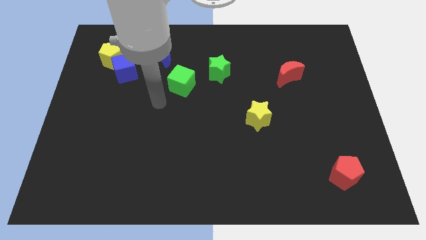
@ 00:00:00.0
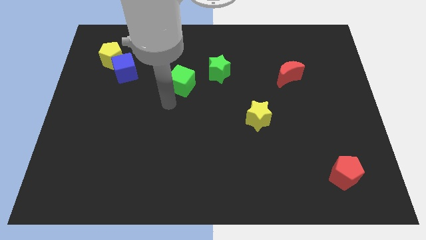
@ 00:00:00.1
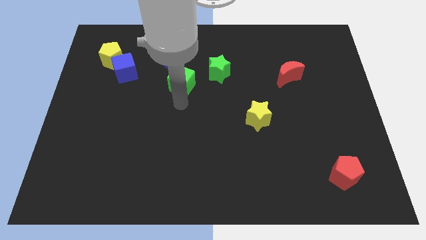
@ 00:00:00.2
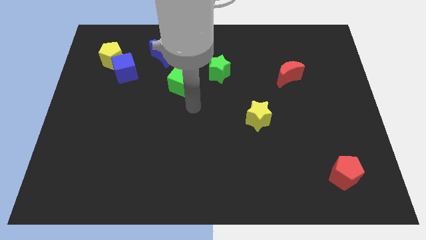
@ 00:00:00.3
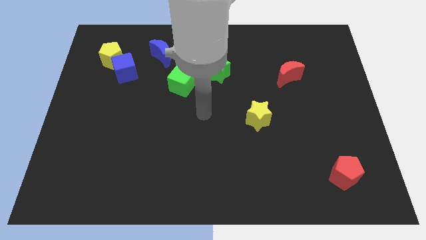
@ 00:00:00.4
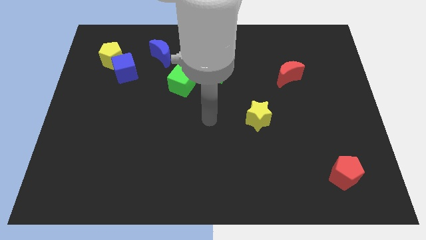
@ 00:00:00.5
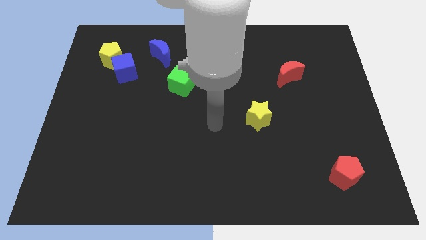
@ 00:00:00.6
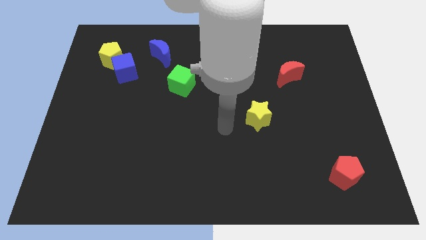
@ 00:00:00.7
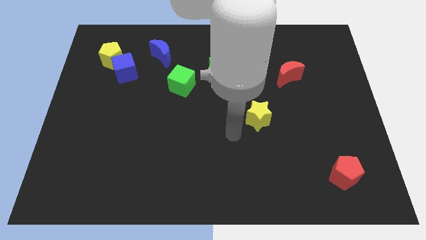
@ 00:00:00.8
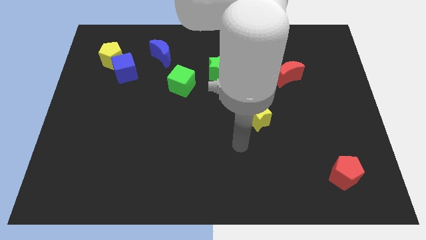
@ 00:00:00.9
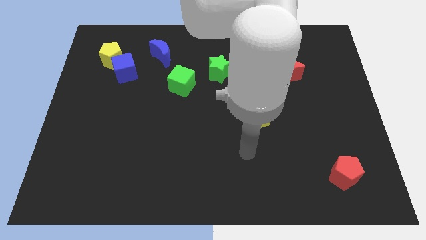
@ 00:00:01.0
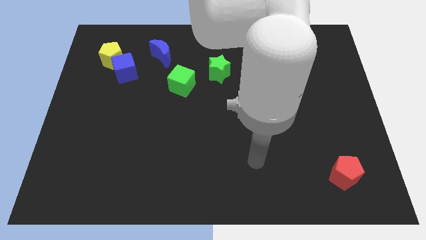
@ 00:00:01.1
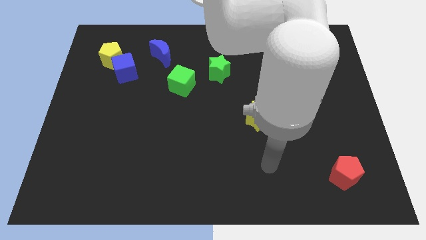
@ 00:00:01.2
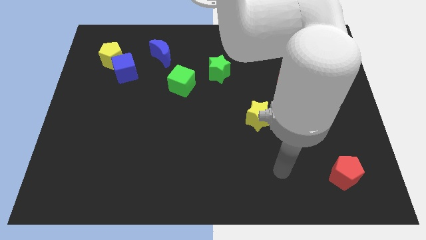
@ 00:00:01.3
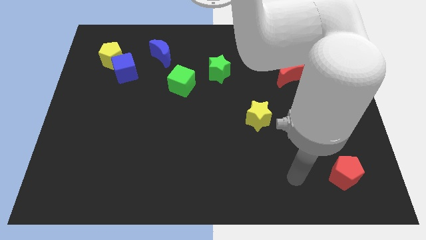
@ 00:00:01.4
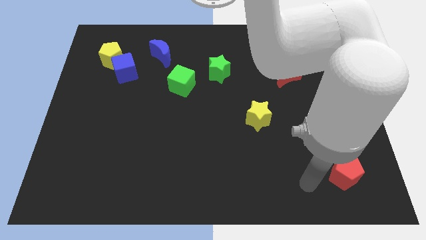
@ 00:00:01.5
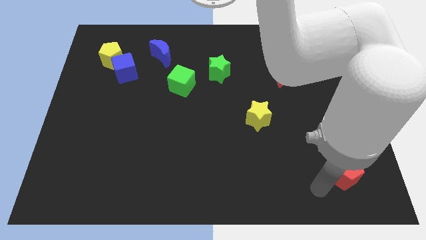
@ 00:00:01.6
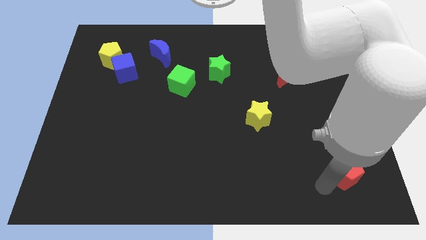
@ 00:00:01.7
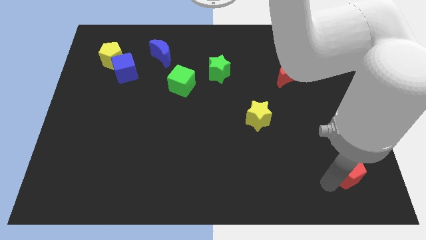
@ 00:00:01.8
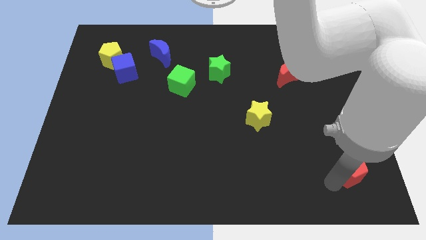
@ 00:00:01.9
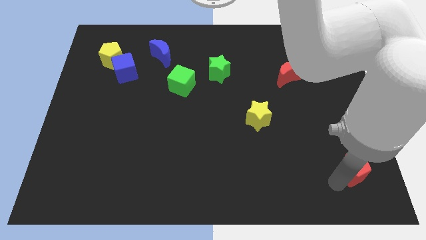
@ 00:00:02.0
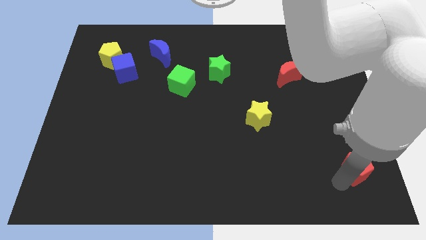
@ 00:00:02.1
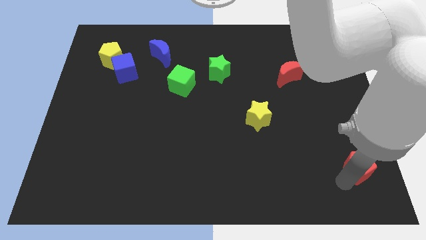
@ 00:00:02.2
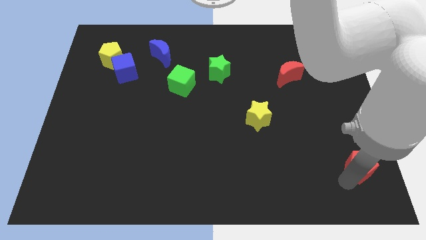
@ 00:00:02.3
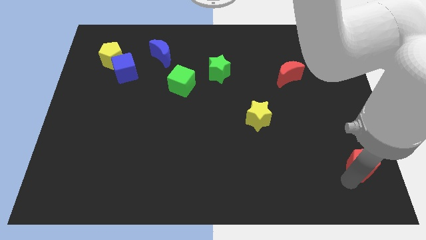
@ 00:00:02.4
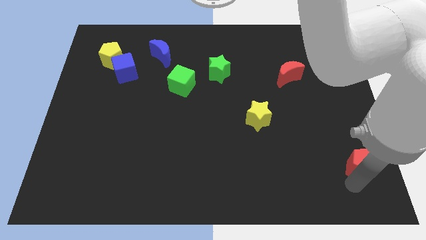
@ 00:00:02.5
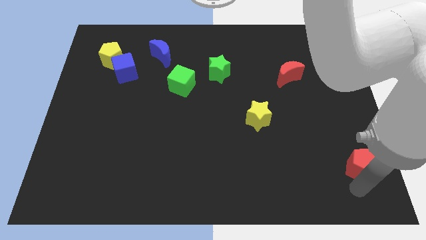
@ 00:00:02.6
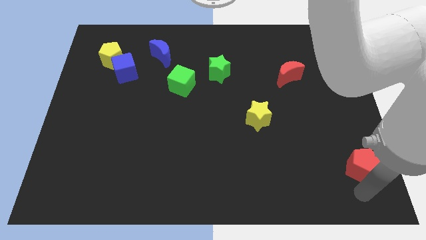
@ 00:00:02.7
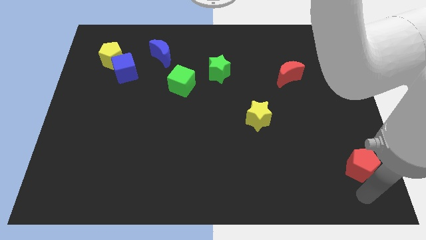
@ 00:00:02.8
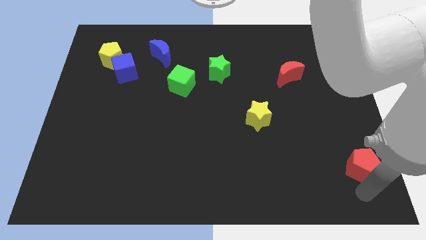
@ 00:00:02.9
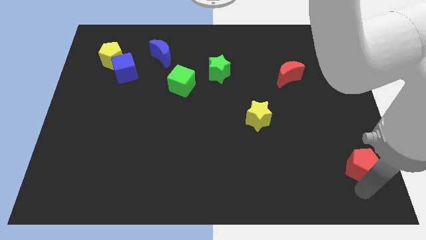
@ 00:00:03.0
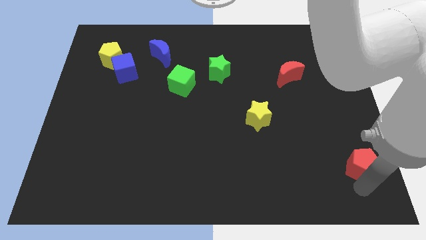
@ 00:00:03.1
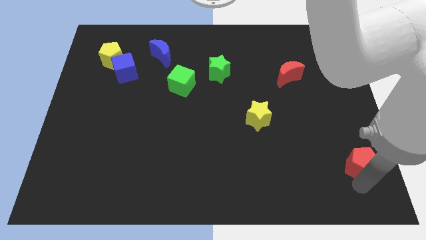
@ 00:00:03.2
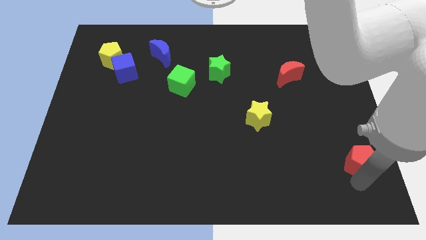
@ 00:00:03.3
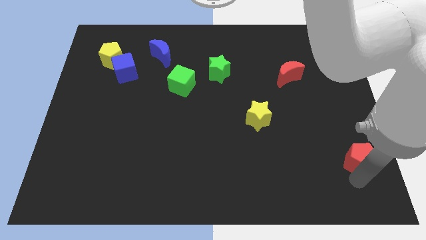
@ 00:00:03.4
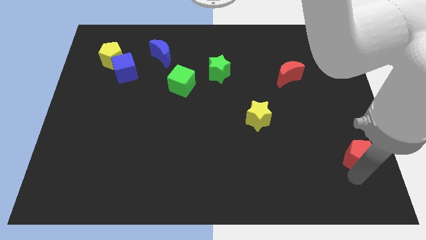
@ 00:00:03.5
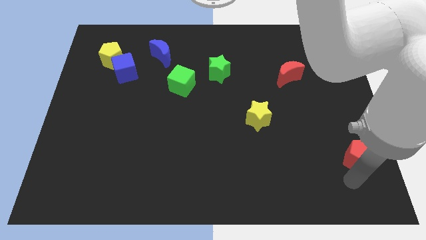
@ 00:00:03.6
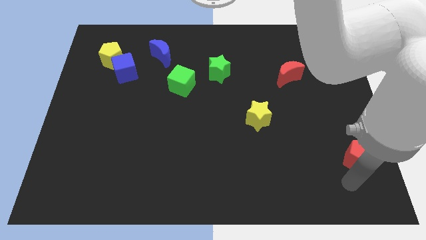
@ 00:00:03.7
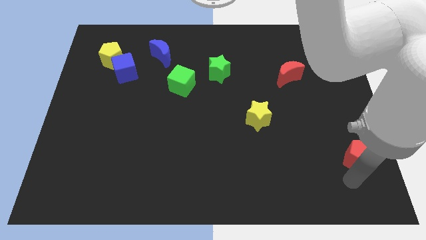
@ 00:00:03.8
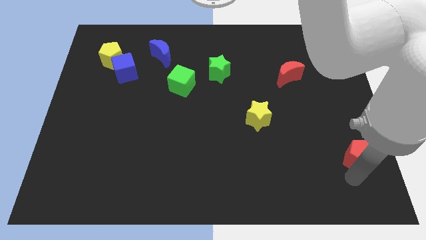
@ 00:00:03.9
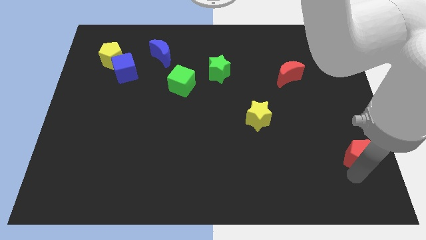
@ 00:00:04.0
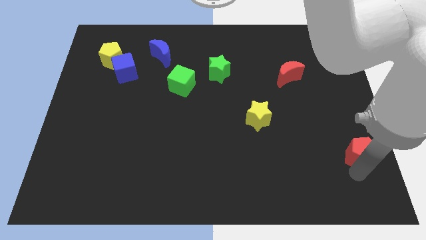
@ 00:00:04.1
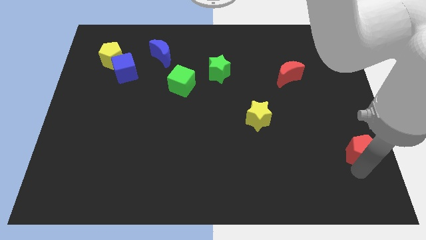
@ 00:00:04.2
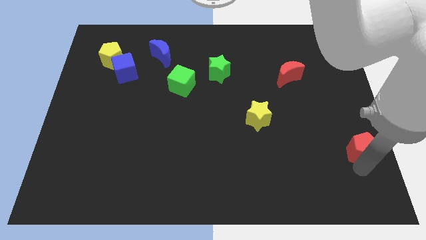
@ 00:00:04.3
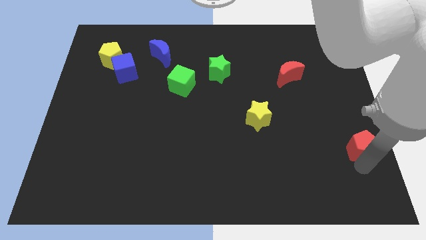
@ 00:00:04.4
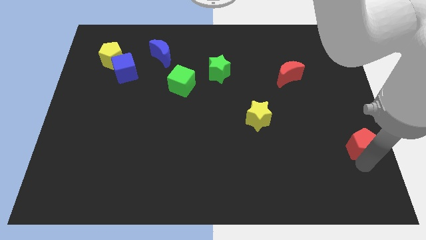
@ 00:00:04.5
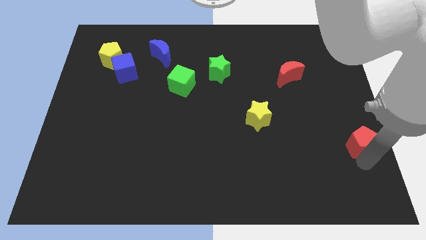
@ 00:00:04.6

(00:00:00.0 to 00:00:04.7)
push the red pentagon to the center right

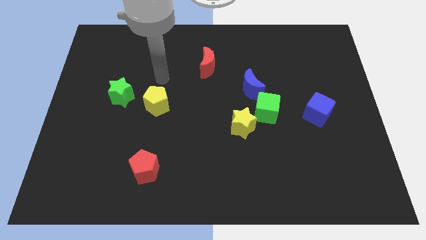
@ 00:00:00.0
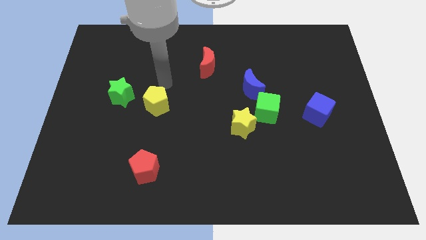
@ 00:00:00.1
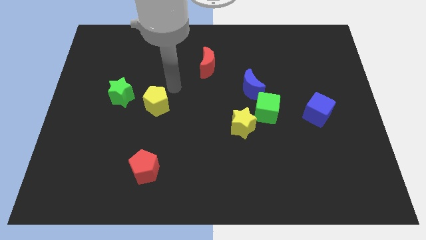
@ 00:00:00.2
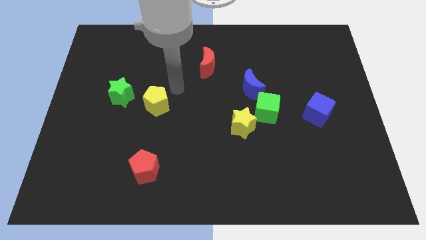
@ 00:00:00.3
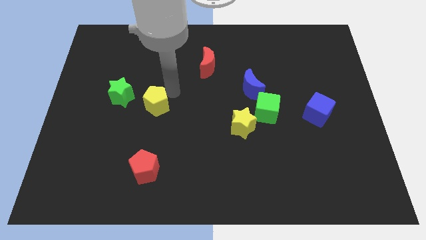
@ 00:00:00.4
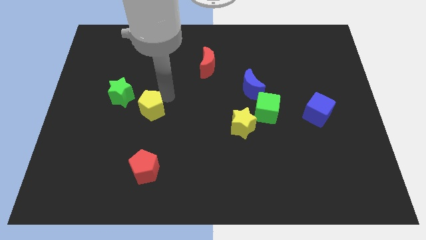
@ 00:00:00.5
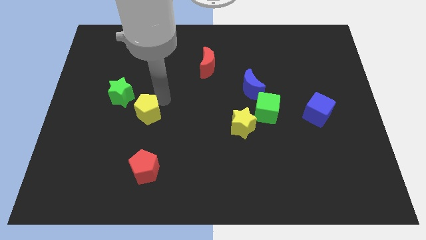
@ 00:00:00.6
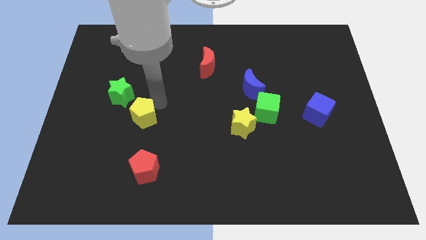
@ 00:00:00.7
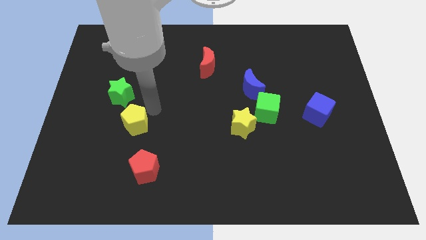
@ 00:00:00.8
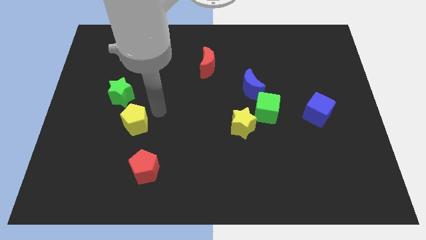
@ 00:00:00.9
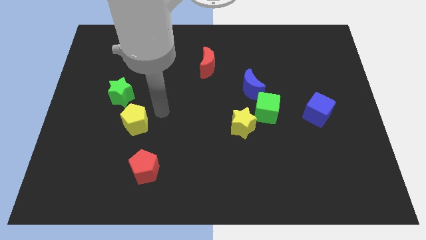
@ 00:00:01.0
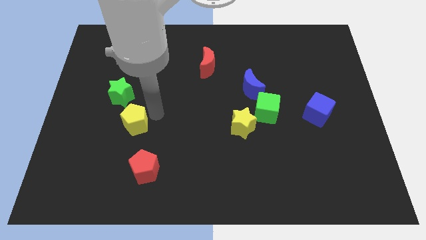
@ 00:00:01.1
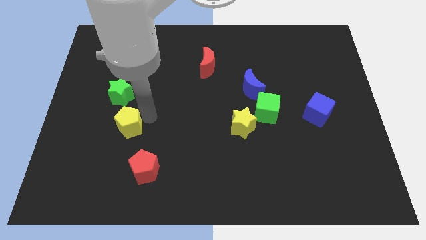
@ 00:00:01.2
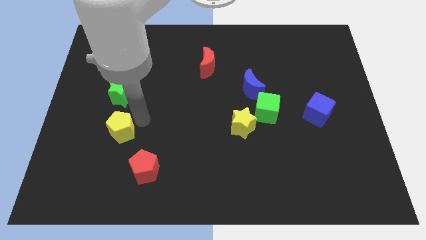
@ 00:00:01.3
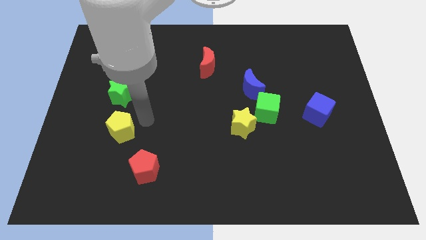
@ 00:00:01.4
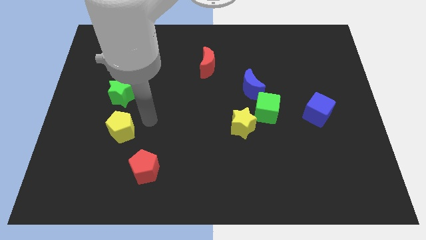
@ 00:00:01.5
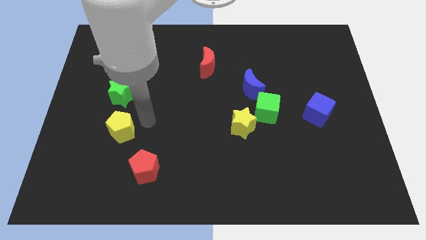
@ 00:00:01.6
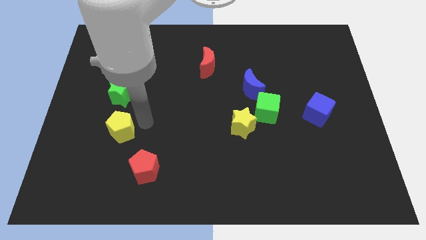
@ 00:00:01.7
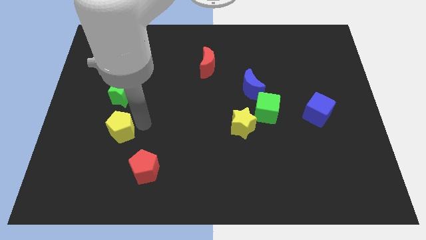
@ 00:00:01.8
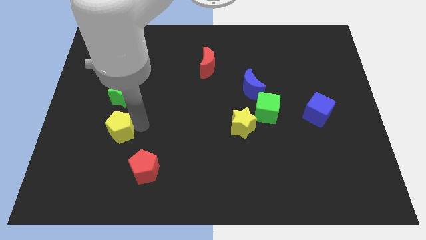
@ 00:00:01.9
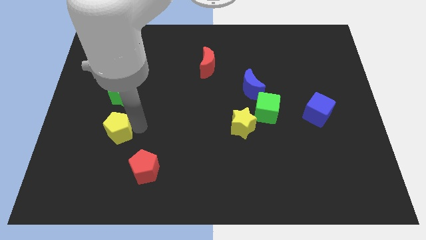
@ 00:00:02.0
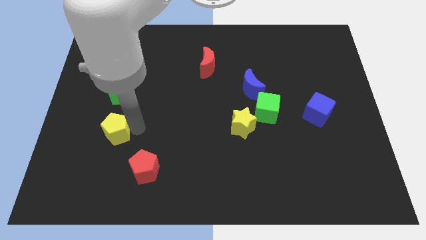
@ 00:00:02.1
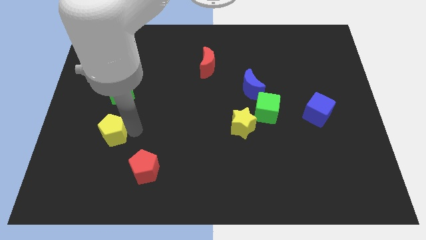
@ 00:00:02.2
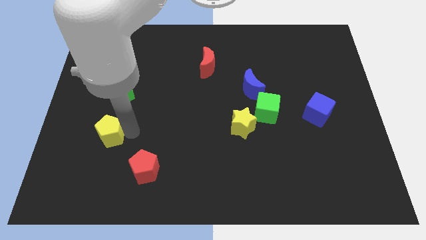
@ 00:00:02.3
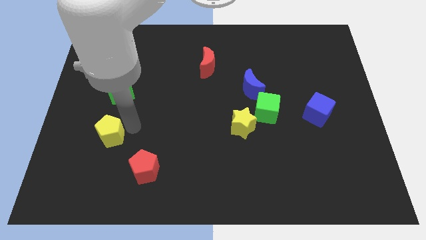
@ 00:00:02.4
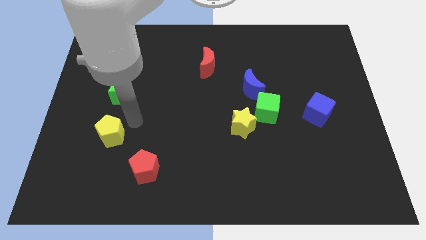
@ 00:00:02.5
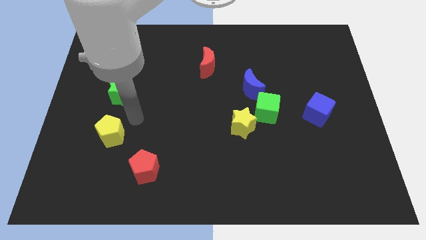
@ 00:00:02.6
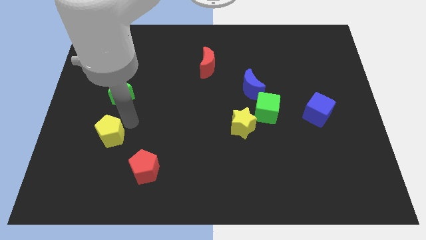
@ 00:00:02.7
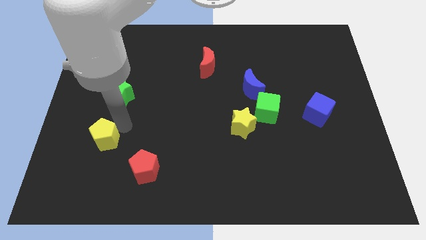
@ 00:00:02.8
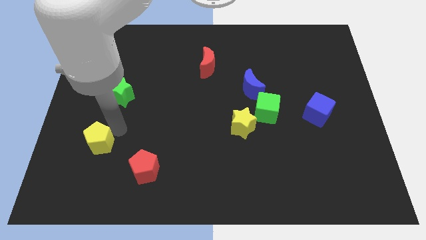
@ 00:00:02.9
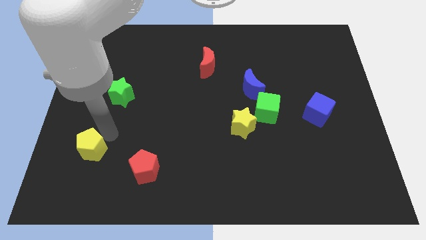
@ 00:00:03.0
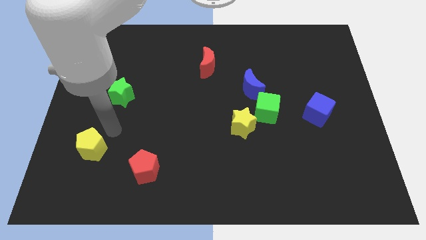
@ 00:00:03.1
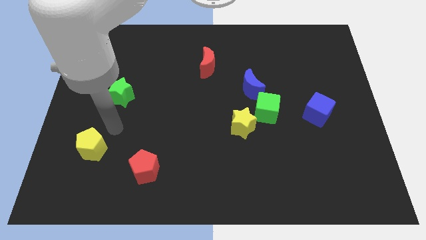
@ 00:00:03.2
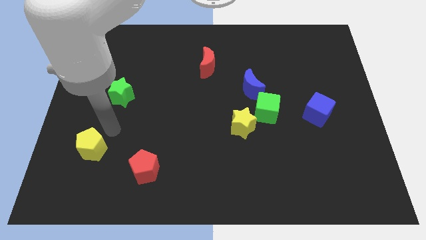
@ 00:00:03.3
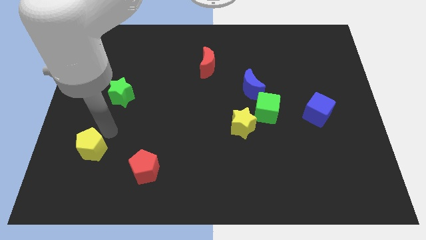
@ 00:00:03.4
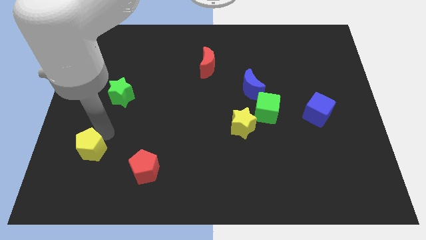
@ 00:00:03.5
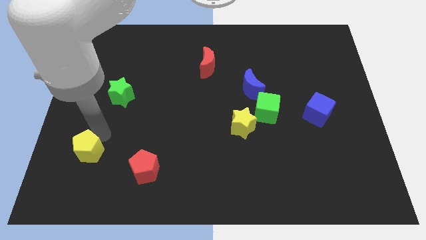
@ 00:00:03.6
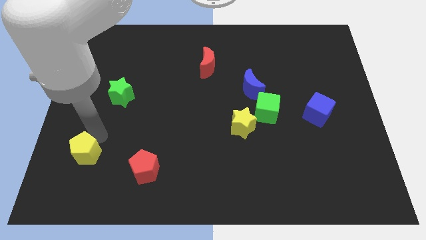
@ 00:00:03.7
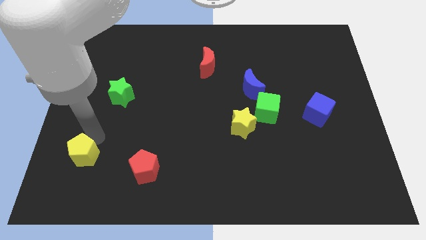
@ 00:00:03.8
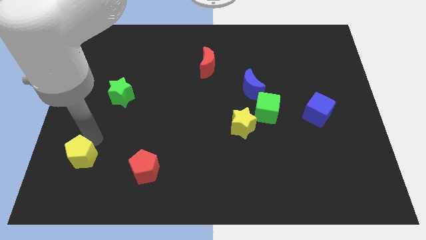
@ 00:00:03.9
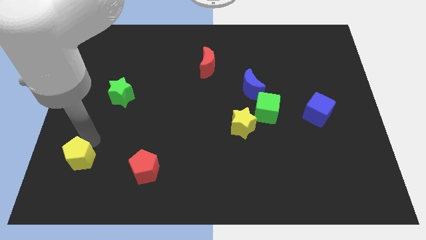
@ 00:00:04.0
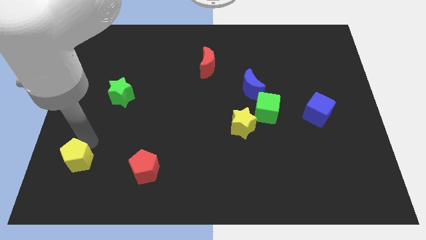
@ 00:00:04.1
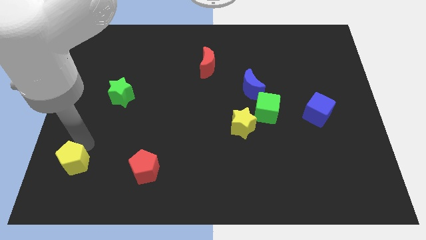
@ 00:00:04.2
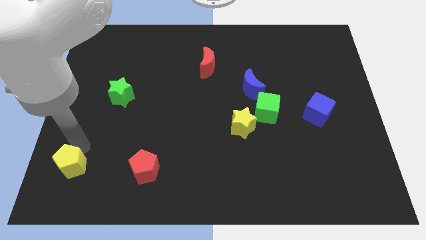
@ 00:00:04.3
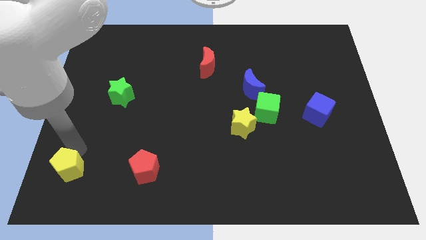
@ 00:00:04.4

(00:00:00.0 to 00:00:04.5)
move the yellow pentagon to the bottom left
